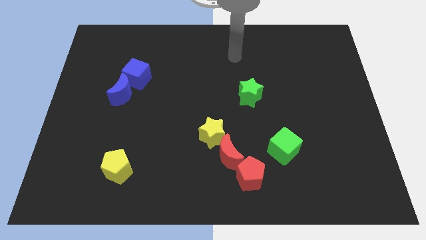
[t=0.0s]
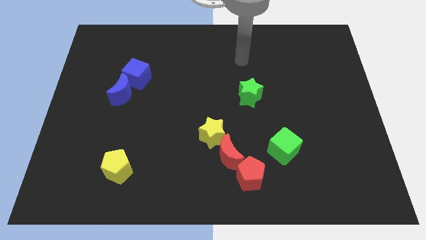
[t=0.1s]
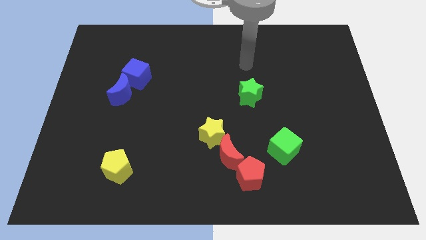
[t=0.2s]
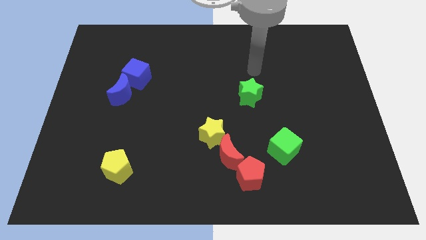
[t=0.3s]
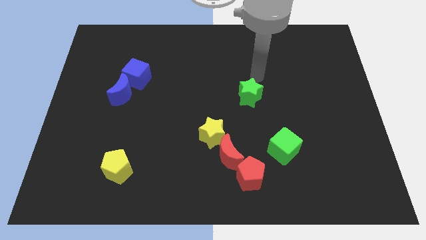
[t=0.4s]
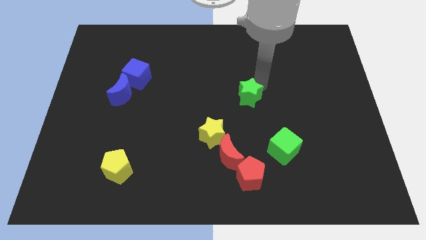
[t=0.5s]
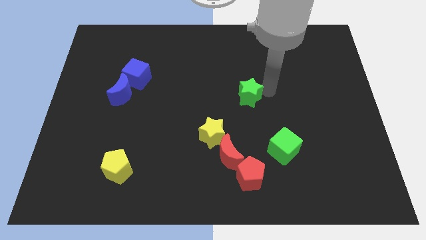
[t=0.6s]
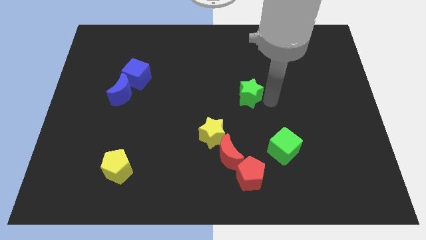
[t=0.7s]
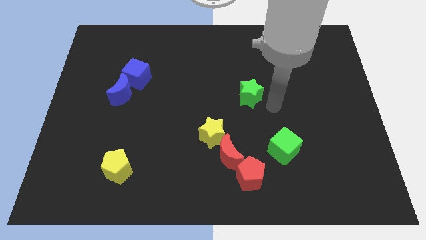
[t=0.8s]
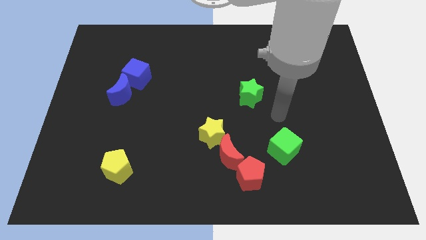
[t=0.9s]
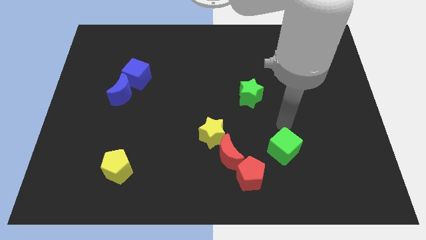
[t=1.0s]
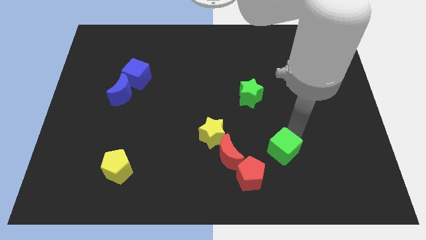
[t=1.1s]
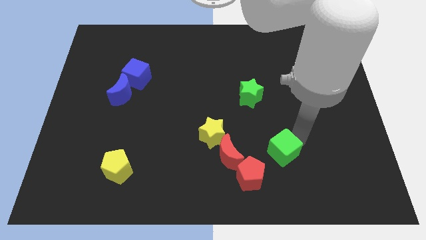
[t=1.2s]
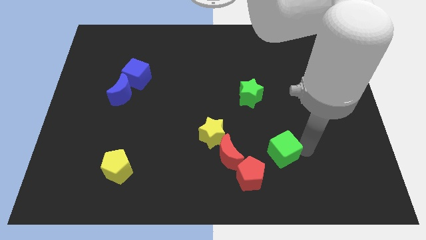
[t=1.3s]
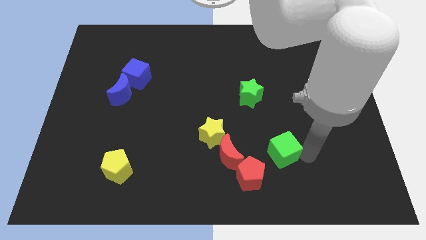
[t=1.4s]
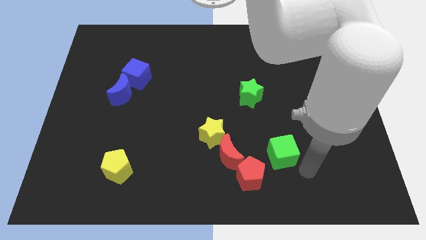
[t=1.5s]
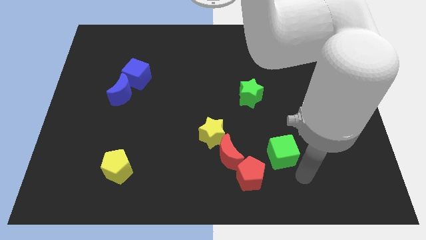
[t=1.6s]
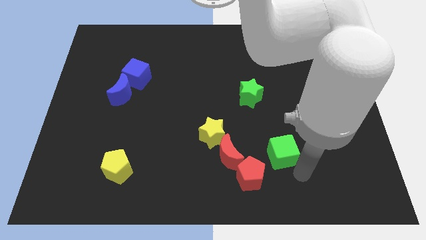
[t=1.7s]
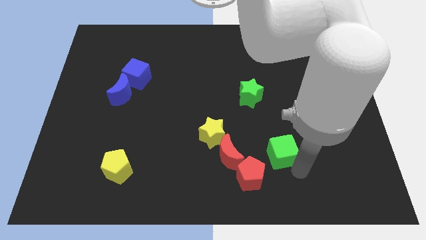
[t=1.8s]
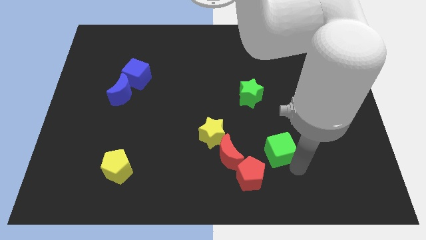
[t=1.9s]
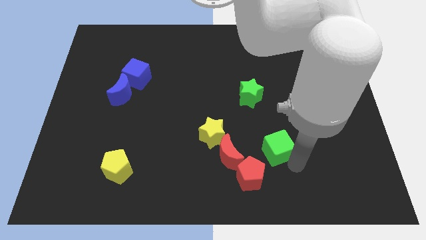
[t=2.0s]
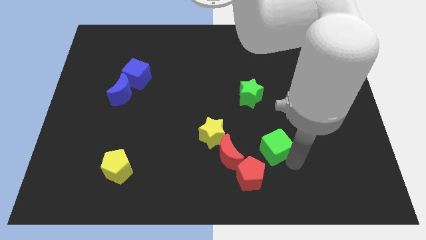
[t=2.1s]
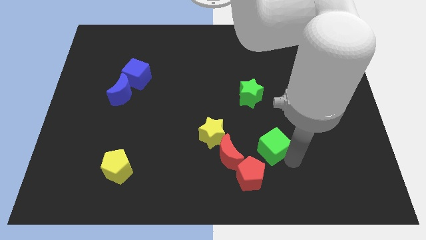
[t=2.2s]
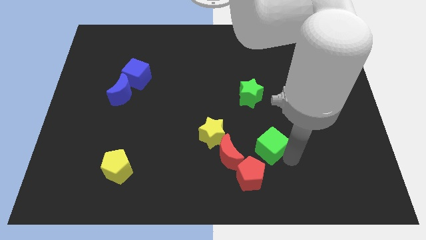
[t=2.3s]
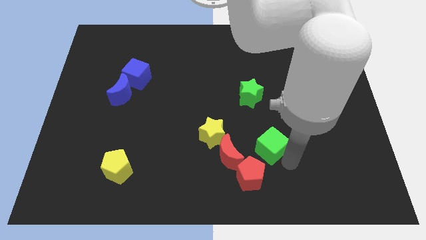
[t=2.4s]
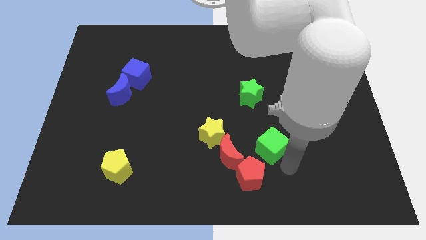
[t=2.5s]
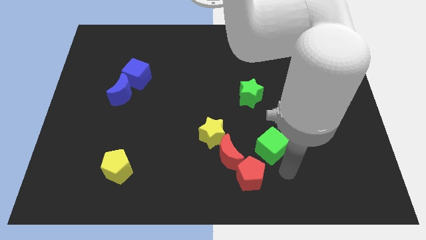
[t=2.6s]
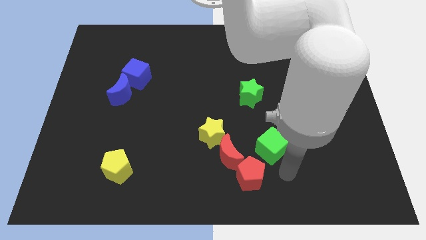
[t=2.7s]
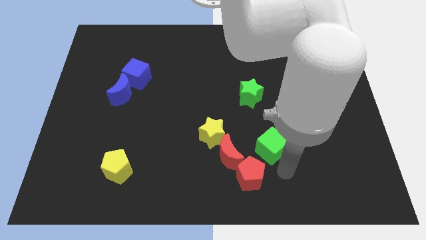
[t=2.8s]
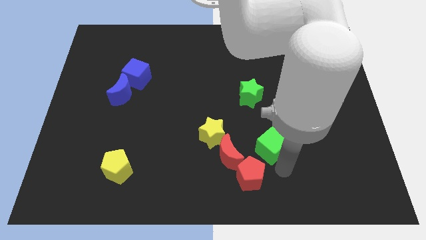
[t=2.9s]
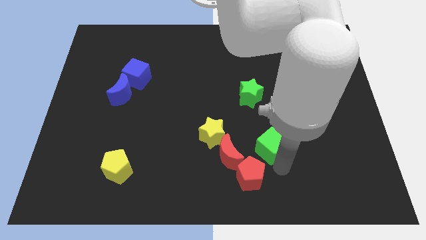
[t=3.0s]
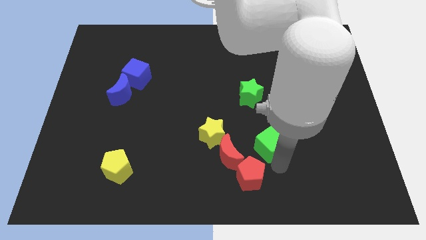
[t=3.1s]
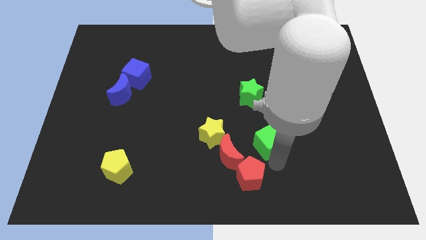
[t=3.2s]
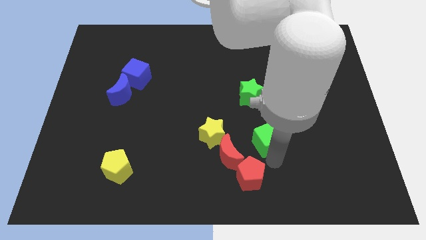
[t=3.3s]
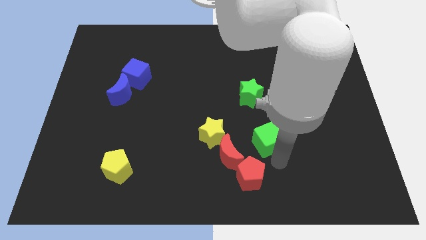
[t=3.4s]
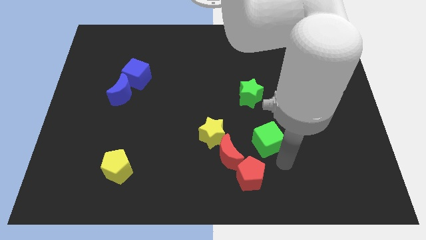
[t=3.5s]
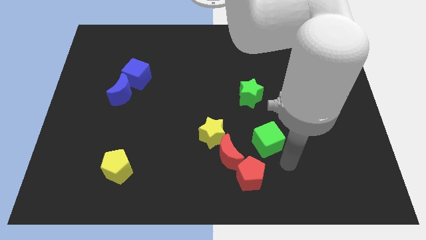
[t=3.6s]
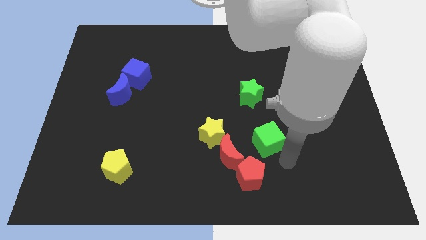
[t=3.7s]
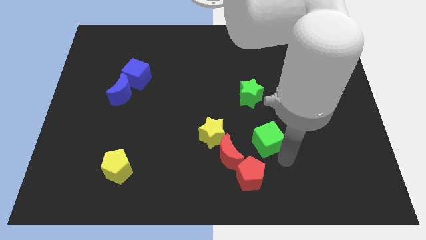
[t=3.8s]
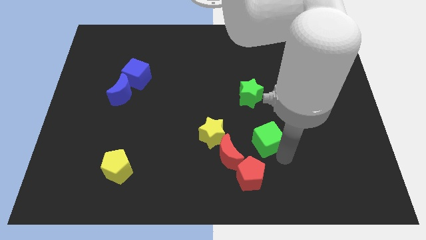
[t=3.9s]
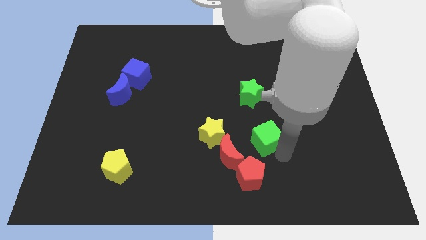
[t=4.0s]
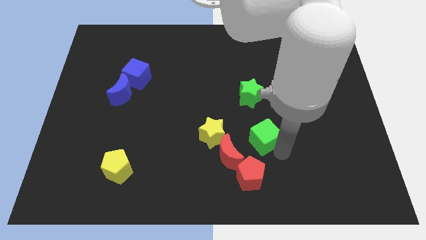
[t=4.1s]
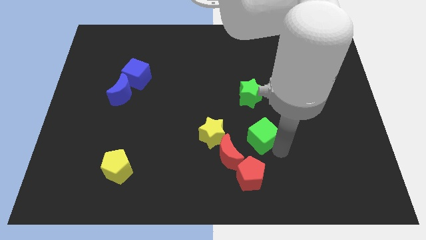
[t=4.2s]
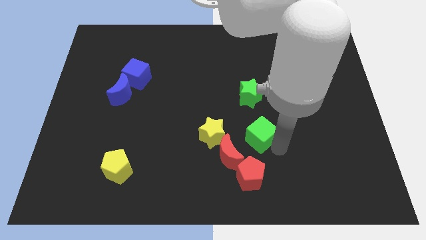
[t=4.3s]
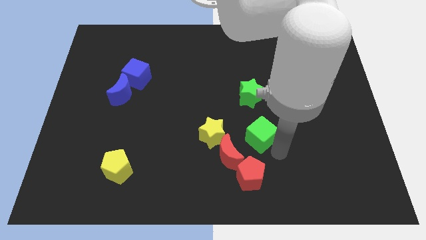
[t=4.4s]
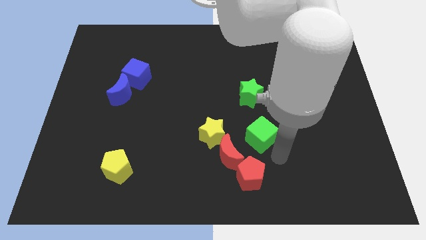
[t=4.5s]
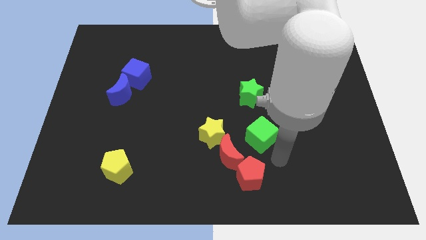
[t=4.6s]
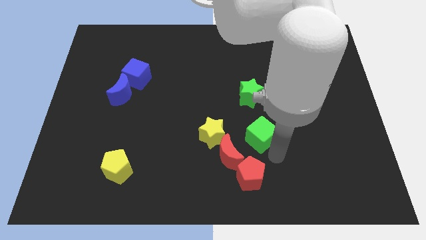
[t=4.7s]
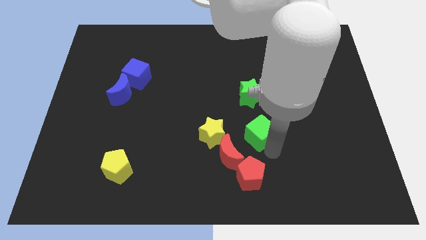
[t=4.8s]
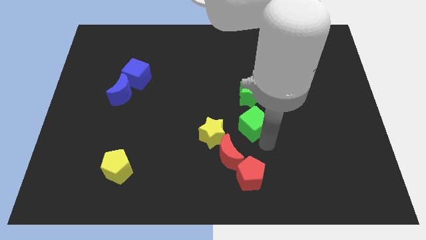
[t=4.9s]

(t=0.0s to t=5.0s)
push the green cube to the middle
